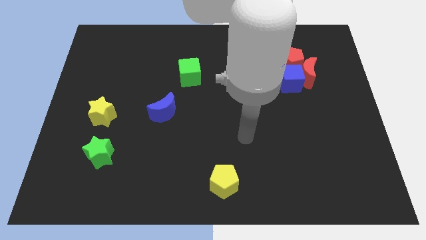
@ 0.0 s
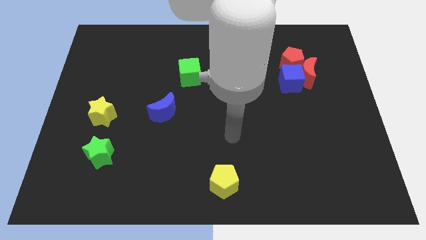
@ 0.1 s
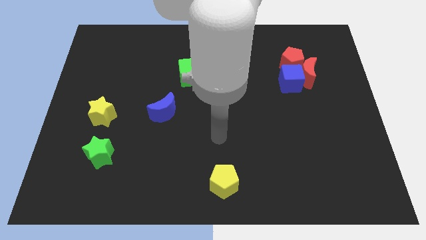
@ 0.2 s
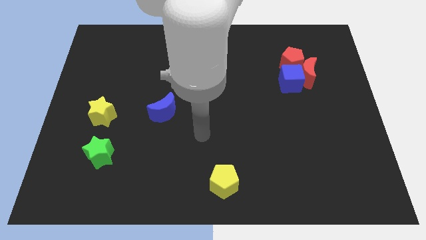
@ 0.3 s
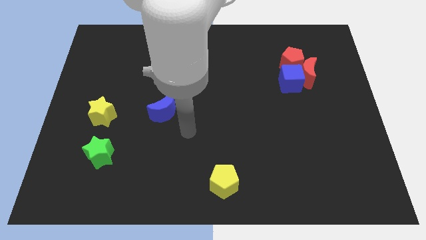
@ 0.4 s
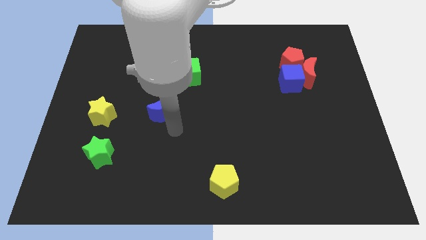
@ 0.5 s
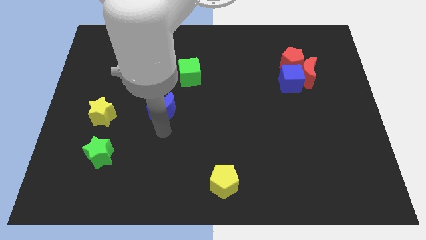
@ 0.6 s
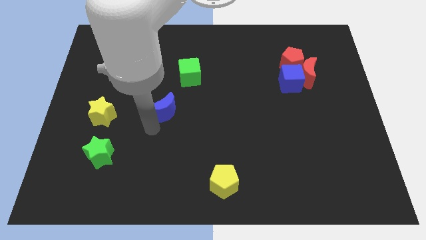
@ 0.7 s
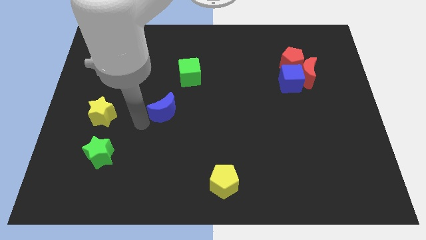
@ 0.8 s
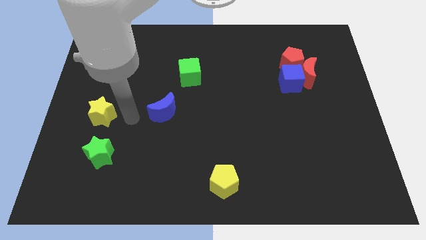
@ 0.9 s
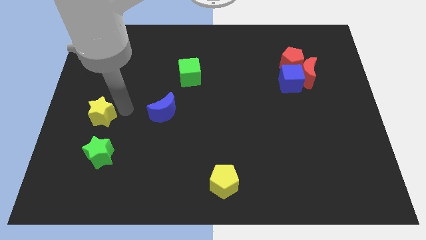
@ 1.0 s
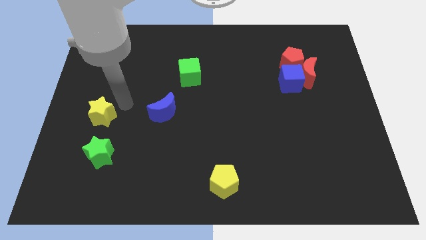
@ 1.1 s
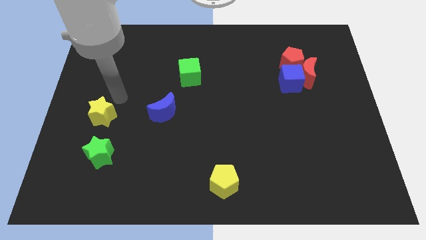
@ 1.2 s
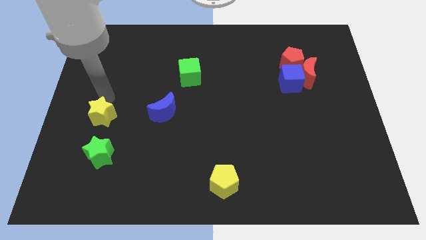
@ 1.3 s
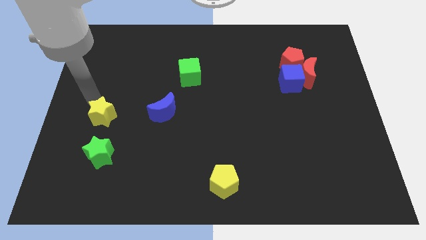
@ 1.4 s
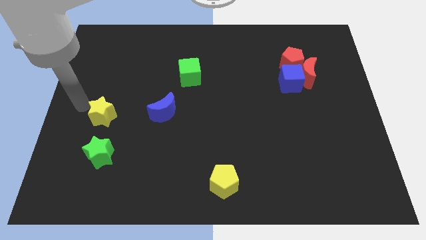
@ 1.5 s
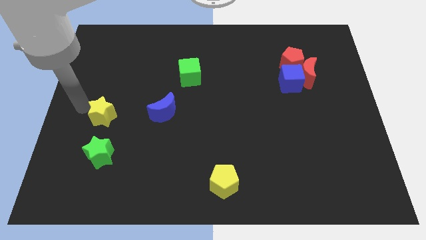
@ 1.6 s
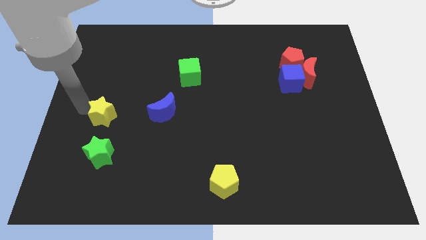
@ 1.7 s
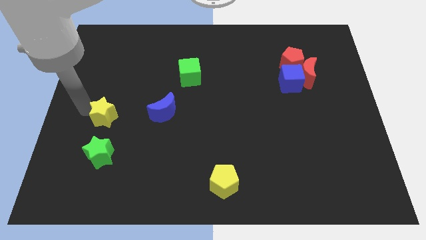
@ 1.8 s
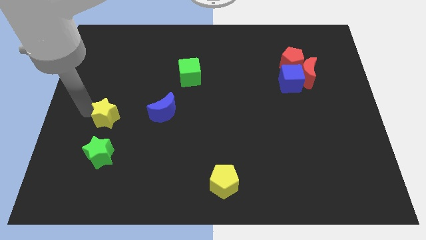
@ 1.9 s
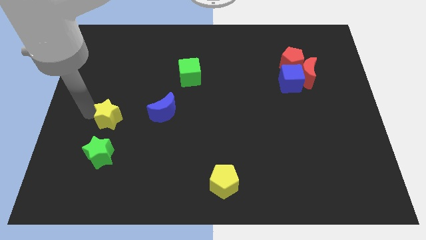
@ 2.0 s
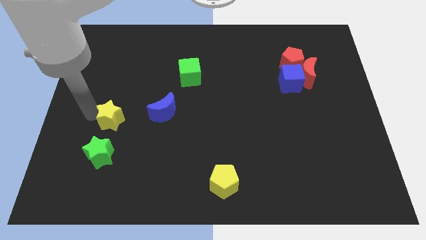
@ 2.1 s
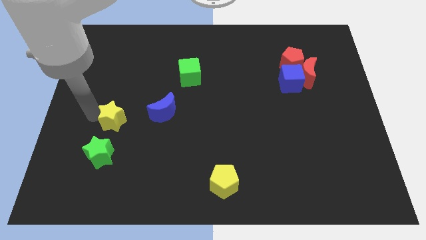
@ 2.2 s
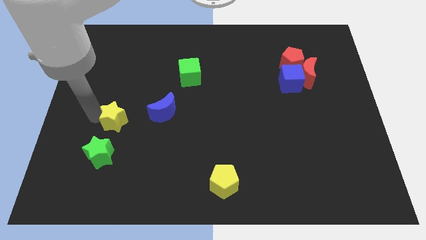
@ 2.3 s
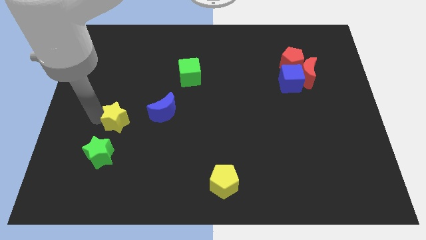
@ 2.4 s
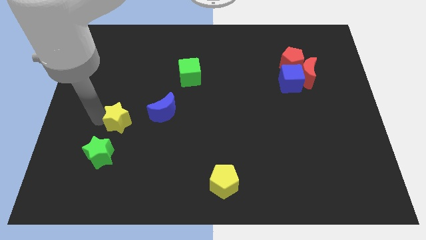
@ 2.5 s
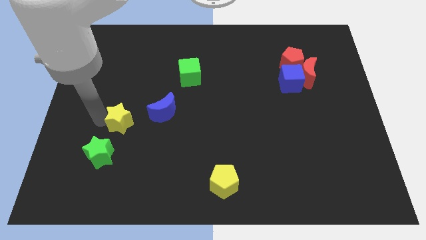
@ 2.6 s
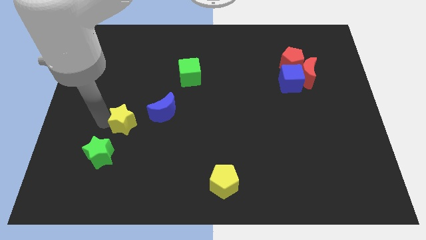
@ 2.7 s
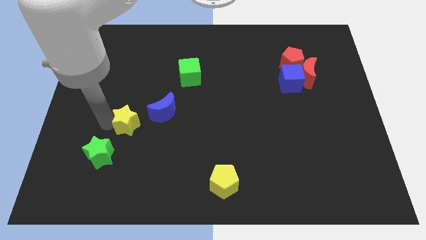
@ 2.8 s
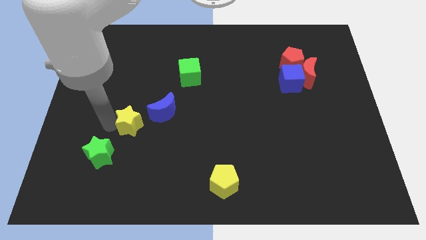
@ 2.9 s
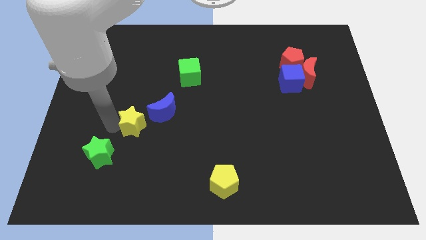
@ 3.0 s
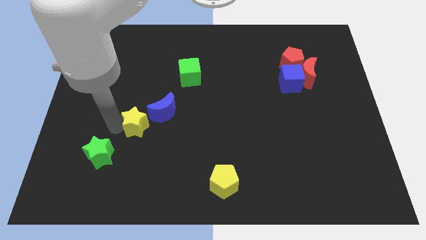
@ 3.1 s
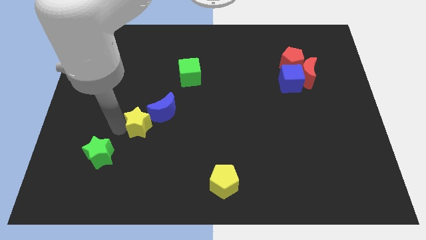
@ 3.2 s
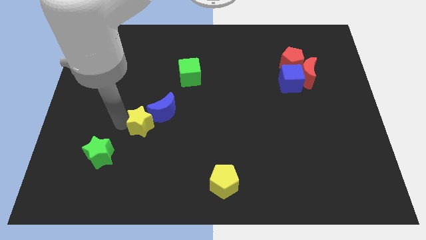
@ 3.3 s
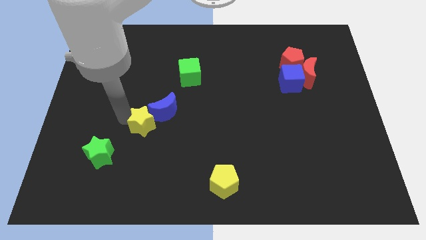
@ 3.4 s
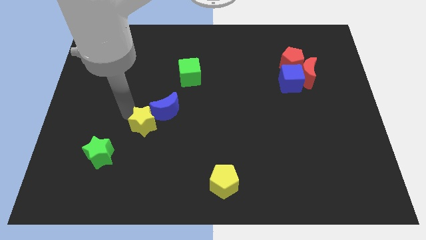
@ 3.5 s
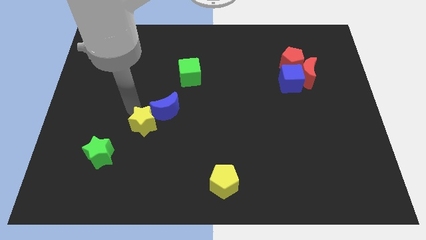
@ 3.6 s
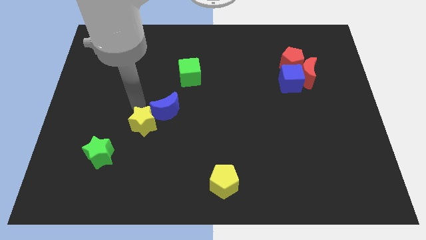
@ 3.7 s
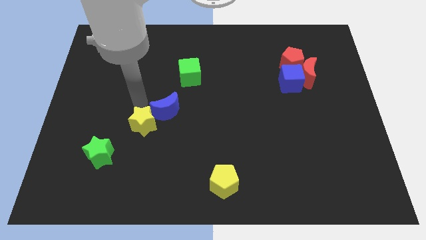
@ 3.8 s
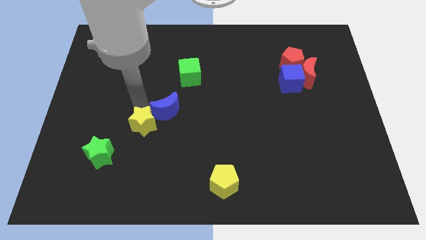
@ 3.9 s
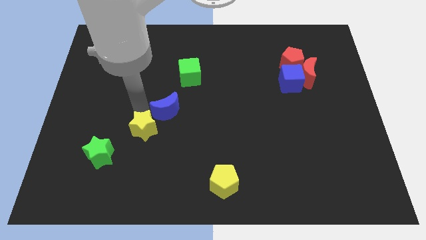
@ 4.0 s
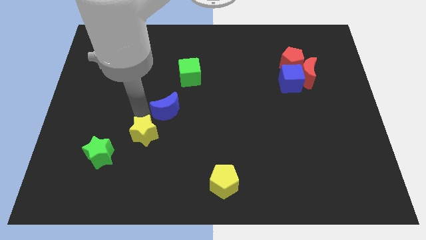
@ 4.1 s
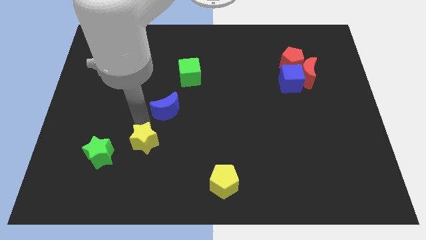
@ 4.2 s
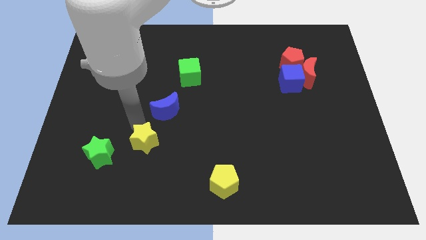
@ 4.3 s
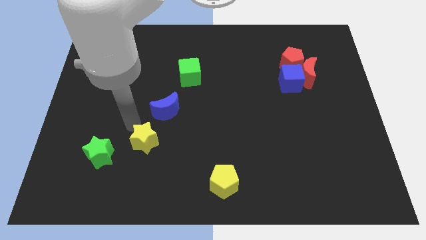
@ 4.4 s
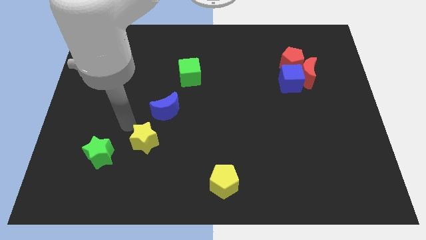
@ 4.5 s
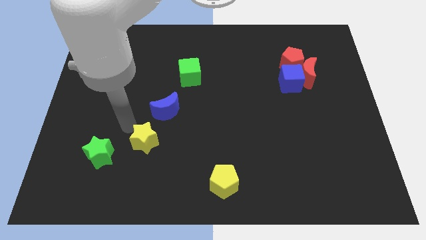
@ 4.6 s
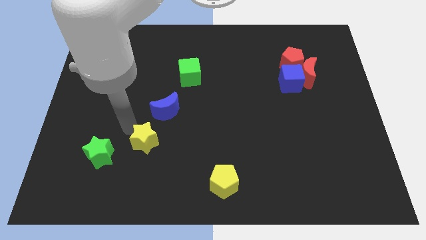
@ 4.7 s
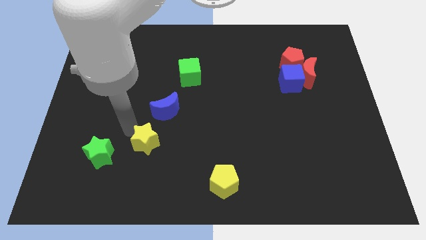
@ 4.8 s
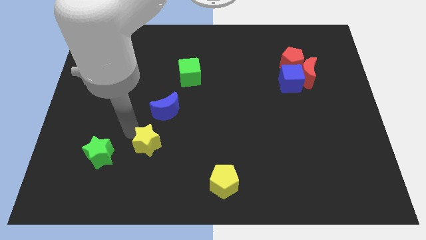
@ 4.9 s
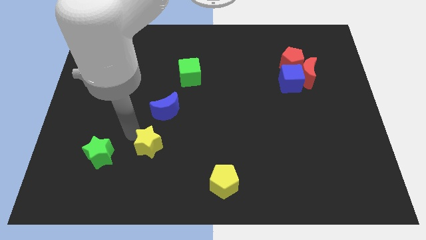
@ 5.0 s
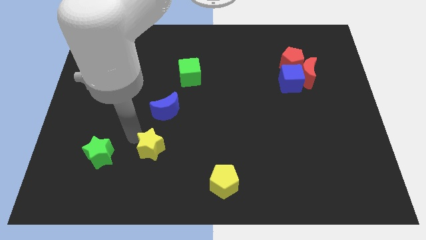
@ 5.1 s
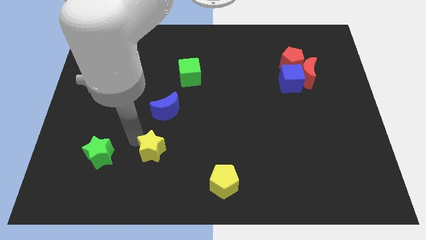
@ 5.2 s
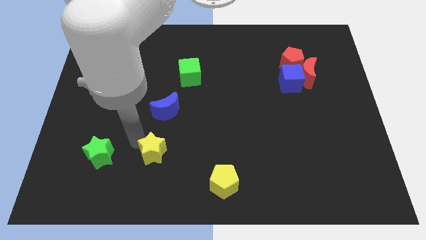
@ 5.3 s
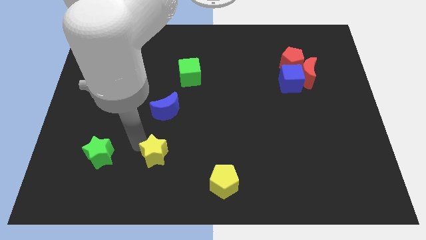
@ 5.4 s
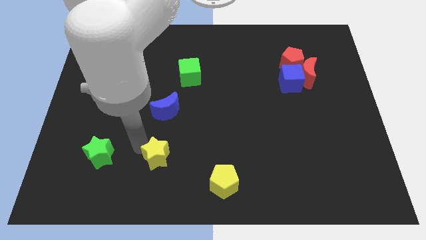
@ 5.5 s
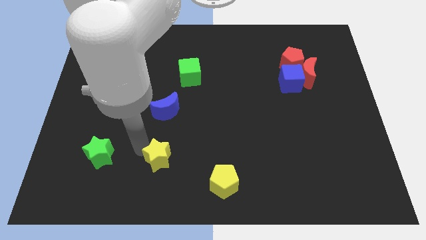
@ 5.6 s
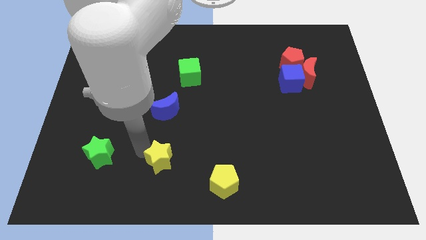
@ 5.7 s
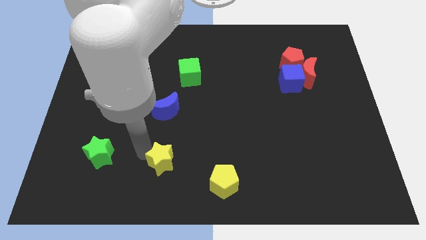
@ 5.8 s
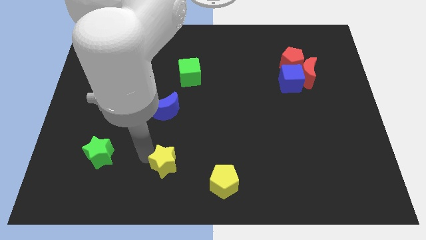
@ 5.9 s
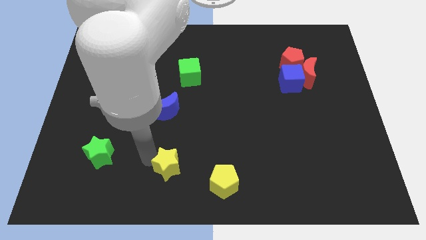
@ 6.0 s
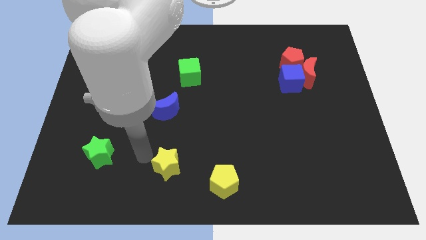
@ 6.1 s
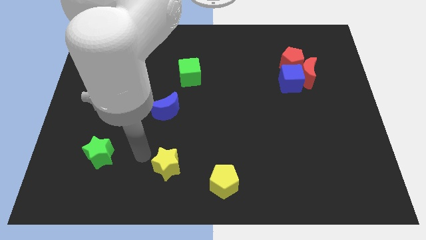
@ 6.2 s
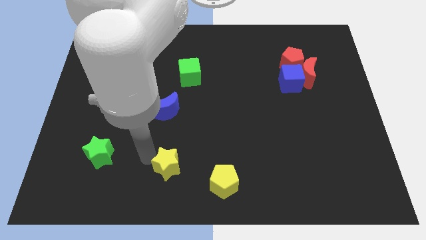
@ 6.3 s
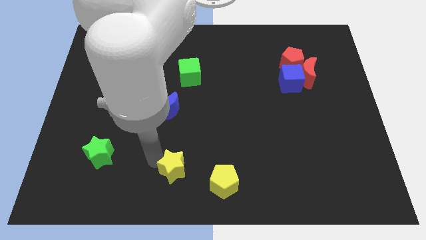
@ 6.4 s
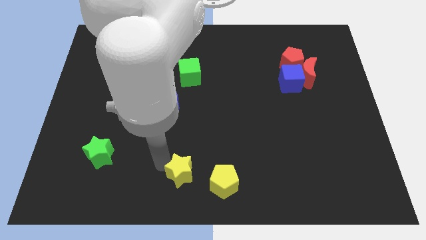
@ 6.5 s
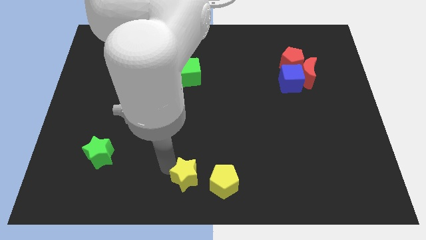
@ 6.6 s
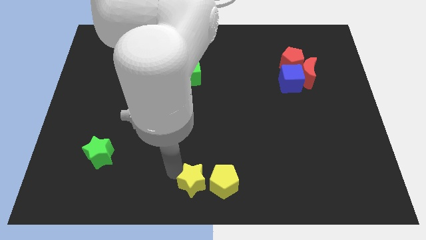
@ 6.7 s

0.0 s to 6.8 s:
push the yellow star next to the yellow pentagon

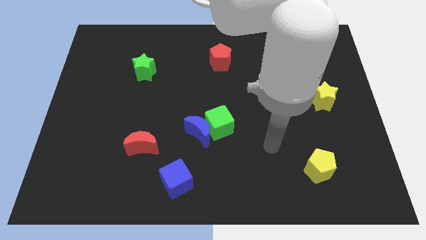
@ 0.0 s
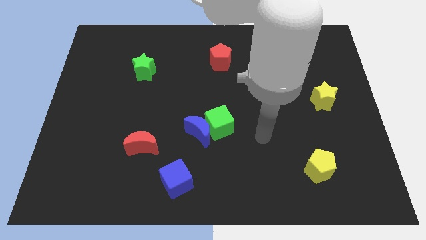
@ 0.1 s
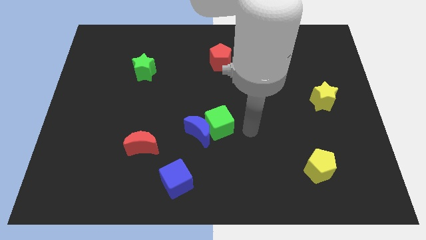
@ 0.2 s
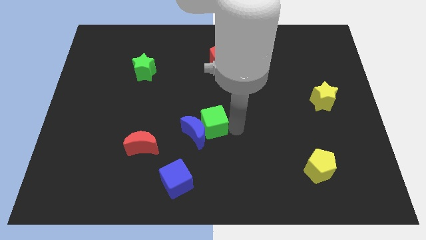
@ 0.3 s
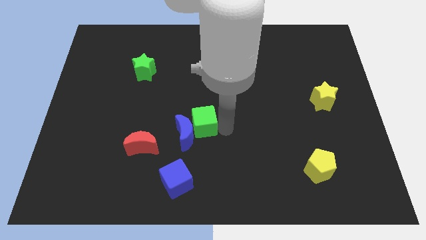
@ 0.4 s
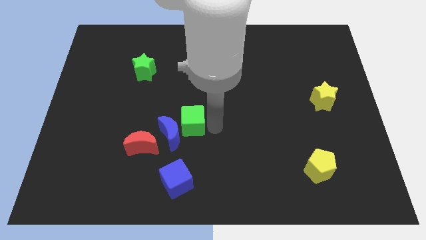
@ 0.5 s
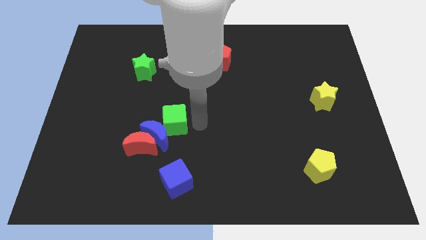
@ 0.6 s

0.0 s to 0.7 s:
move the blue moon to the red moon

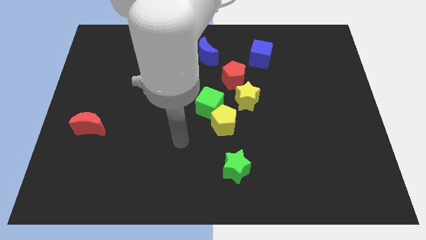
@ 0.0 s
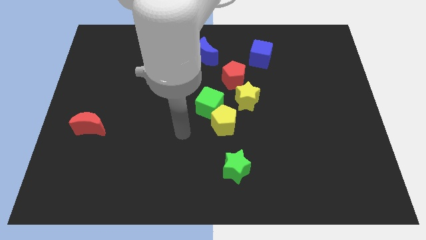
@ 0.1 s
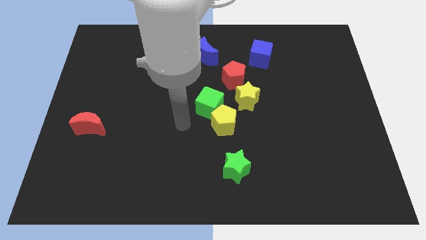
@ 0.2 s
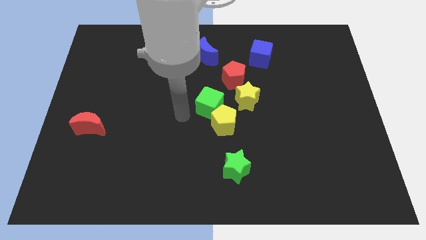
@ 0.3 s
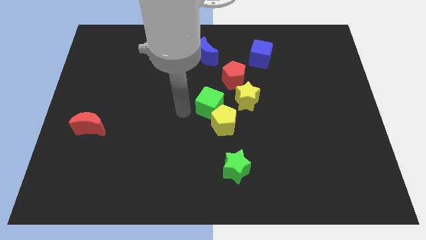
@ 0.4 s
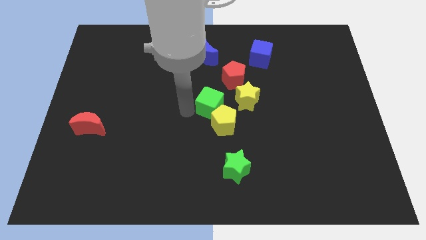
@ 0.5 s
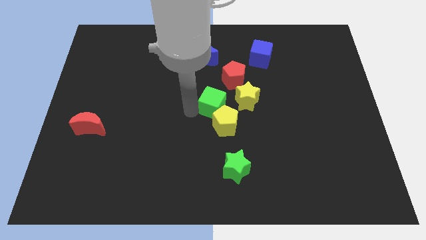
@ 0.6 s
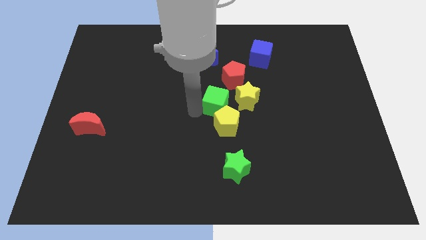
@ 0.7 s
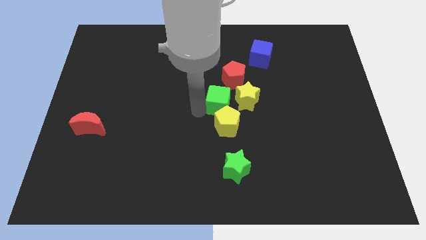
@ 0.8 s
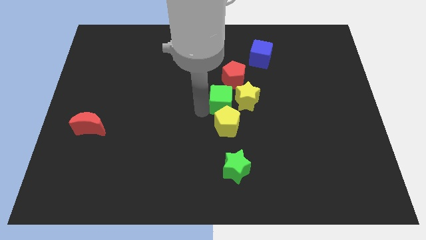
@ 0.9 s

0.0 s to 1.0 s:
put the green cube to the yellow star
